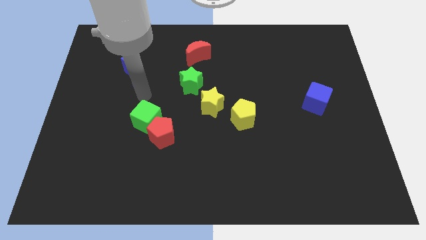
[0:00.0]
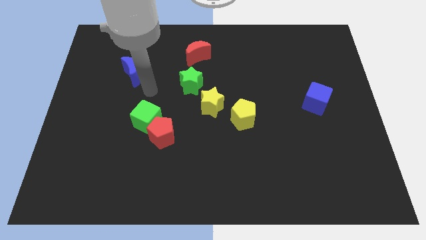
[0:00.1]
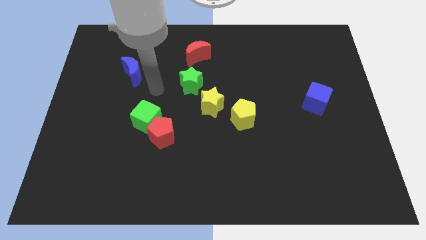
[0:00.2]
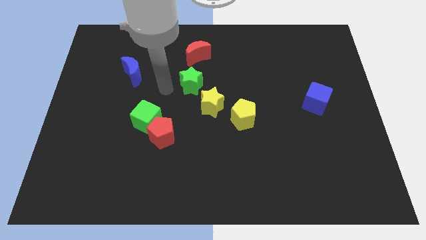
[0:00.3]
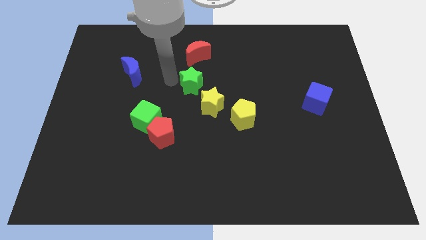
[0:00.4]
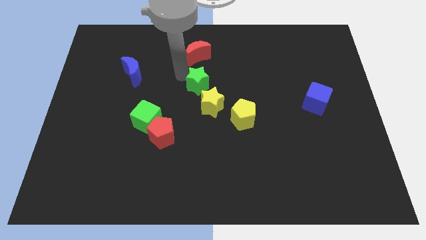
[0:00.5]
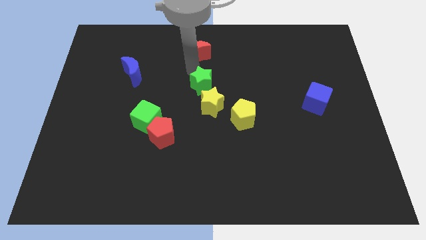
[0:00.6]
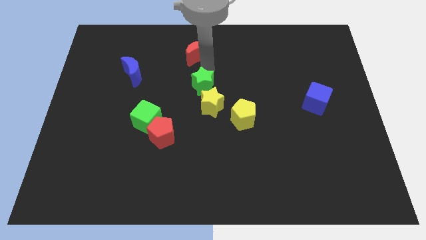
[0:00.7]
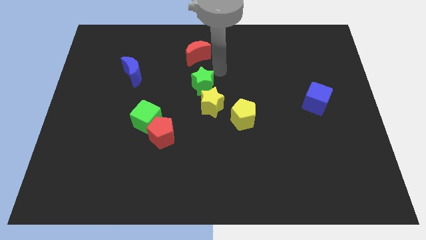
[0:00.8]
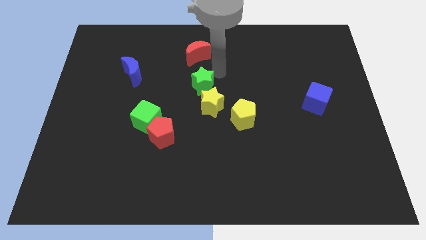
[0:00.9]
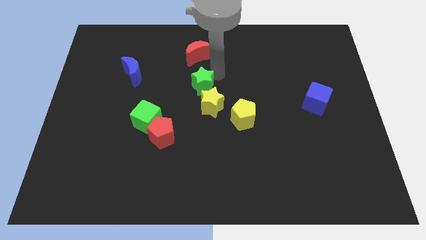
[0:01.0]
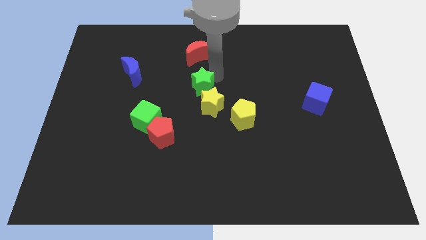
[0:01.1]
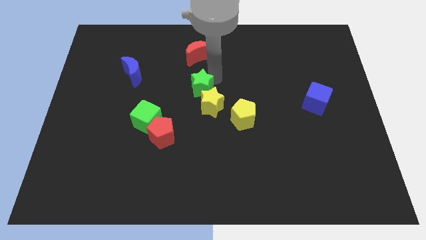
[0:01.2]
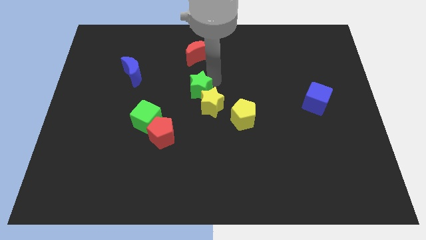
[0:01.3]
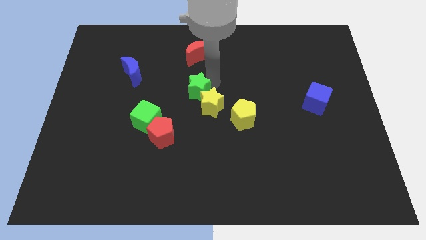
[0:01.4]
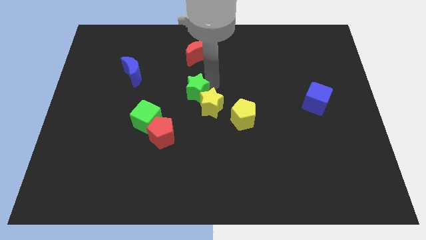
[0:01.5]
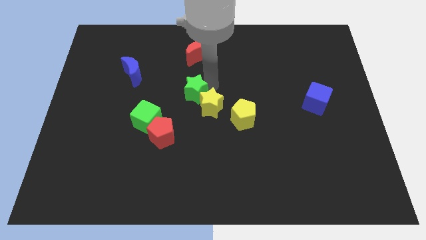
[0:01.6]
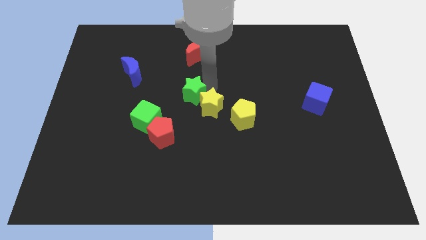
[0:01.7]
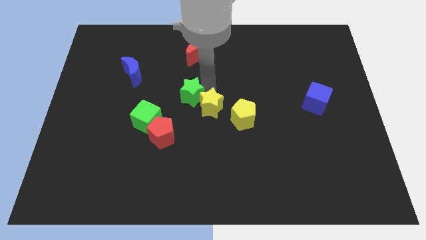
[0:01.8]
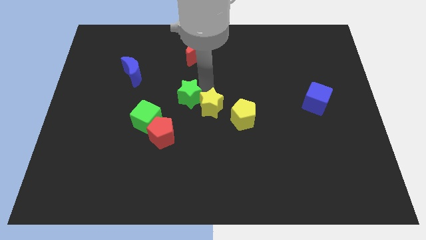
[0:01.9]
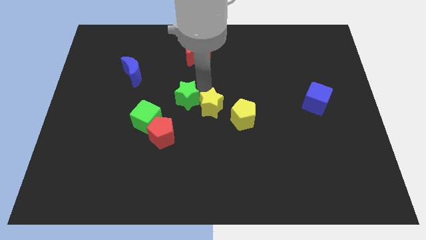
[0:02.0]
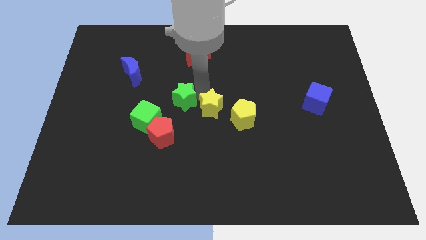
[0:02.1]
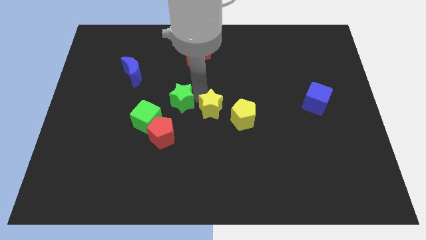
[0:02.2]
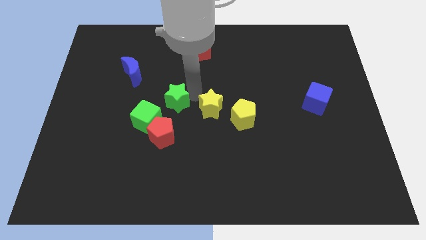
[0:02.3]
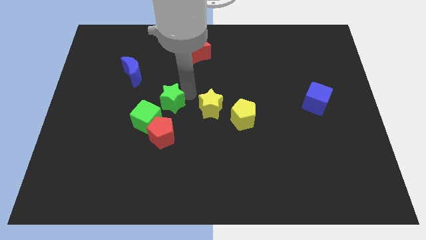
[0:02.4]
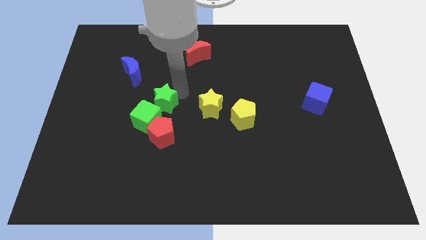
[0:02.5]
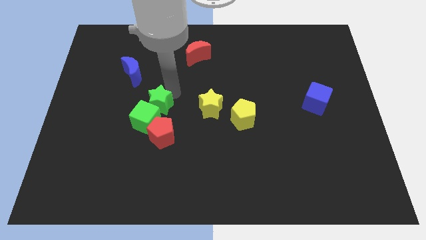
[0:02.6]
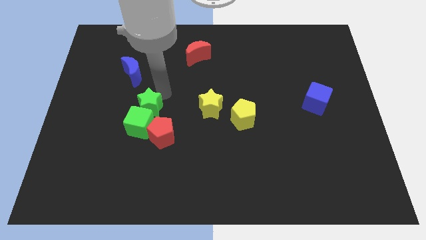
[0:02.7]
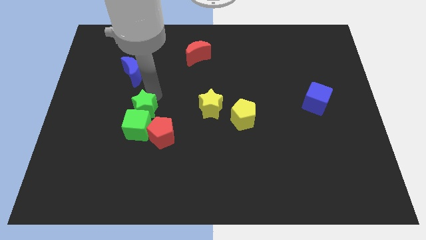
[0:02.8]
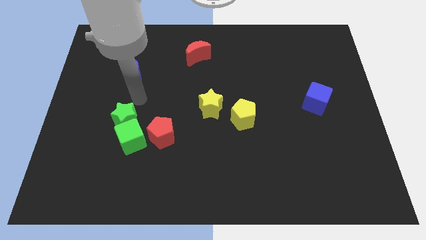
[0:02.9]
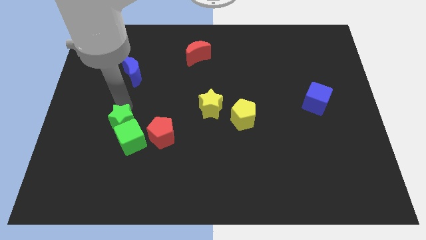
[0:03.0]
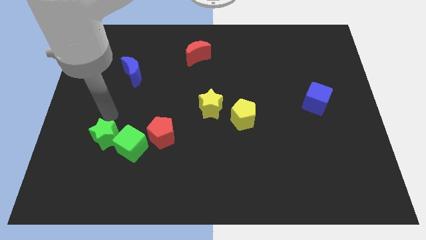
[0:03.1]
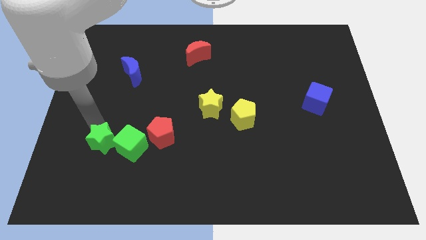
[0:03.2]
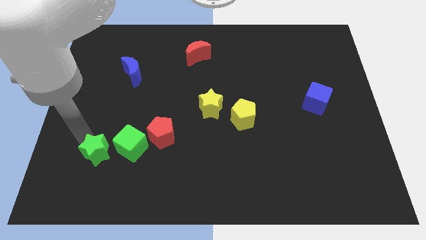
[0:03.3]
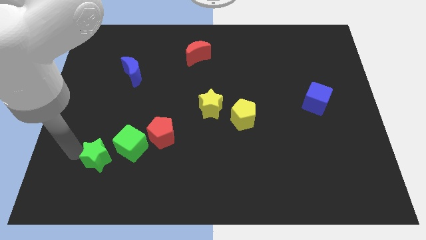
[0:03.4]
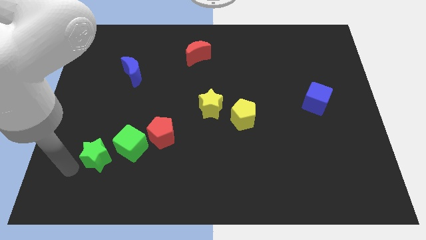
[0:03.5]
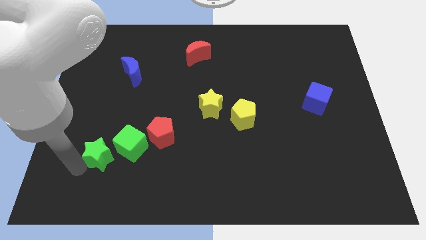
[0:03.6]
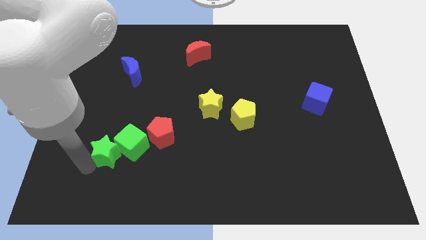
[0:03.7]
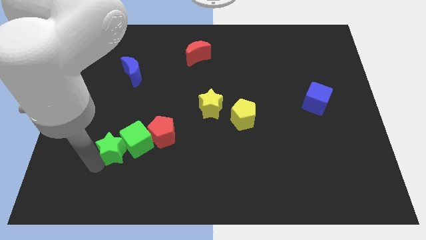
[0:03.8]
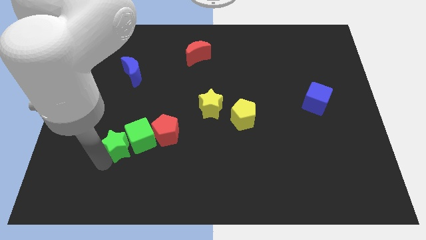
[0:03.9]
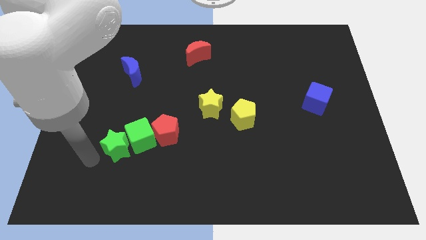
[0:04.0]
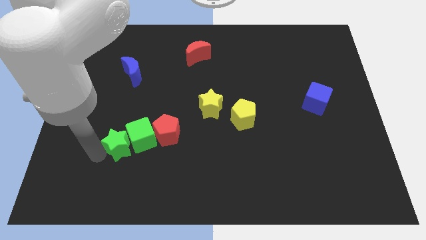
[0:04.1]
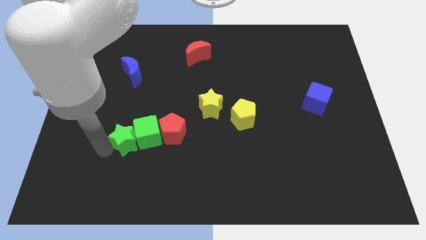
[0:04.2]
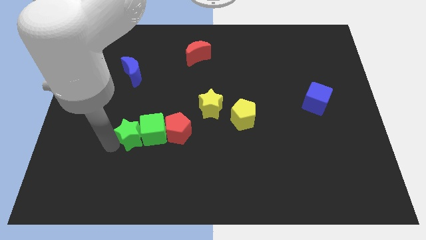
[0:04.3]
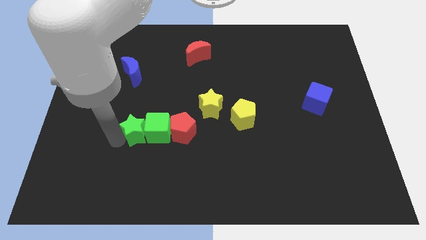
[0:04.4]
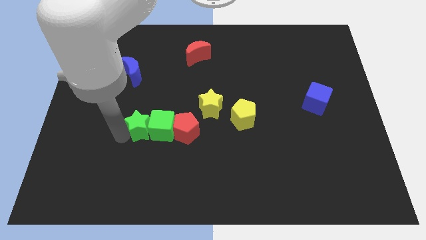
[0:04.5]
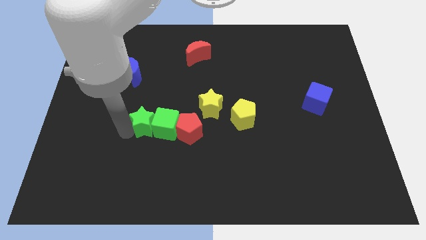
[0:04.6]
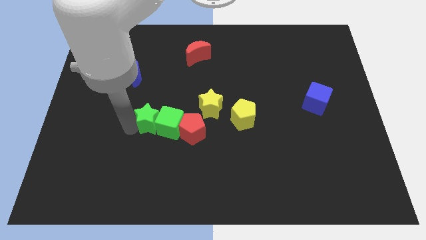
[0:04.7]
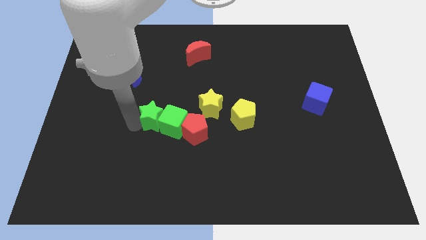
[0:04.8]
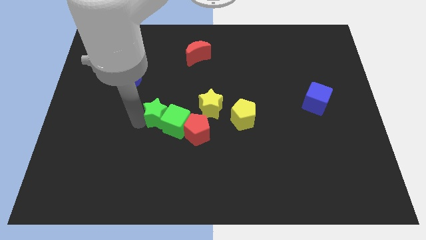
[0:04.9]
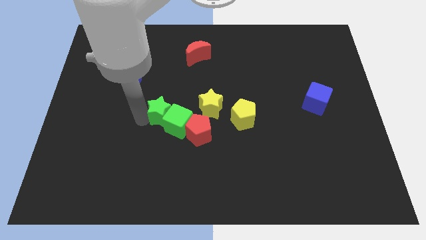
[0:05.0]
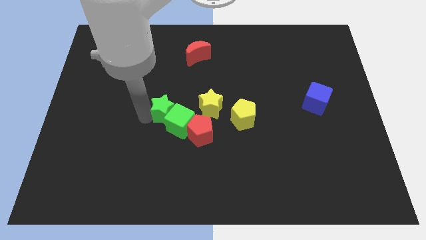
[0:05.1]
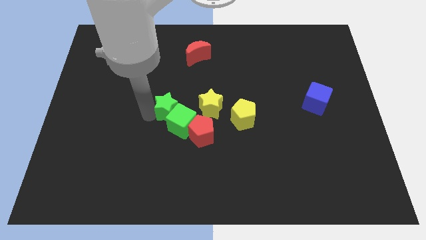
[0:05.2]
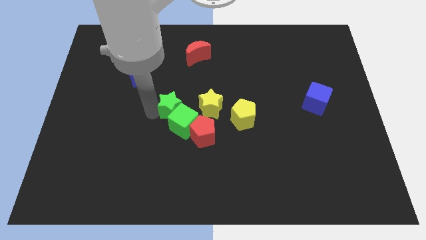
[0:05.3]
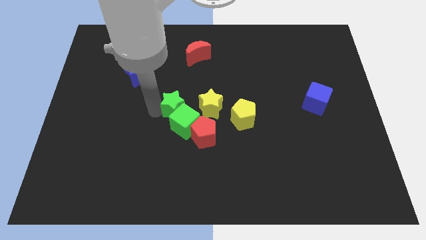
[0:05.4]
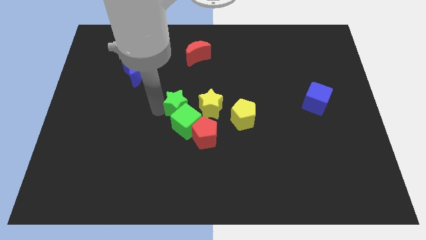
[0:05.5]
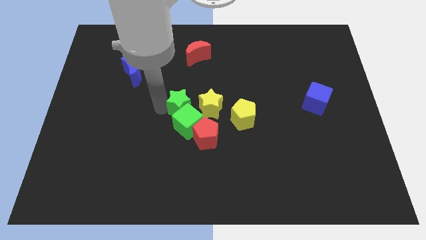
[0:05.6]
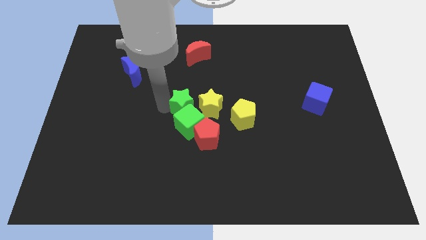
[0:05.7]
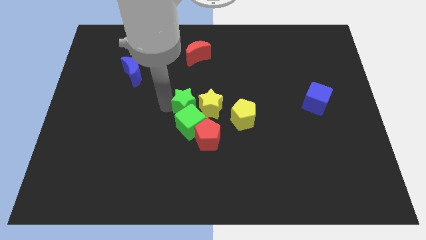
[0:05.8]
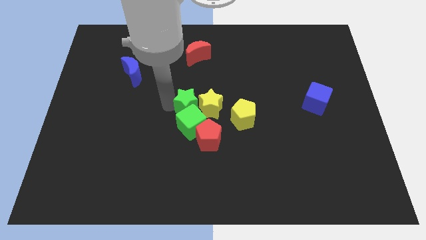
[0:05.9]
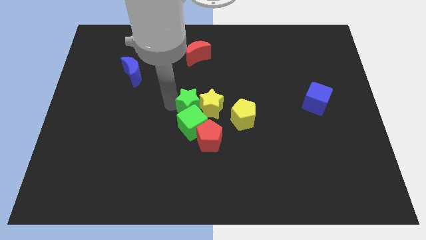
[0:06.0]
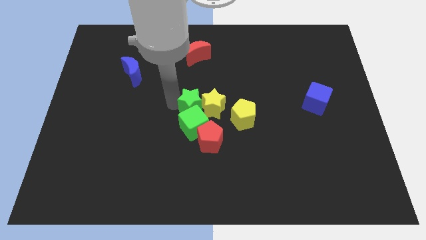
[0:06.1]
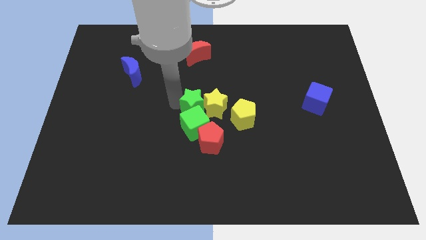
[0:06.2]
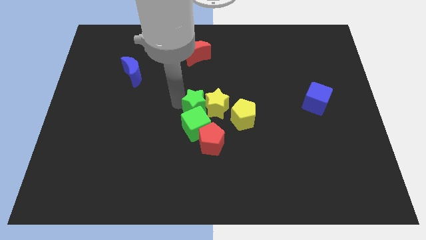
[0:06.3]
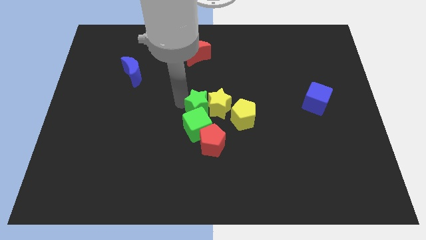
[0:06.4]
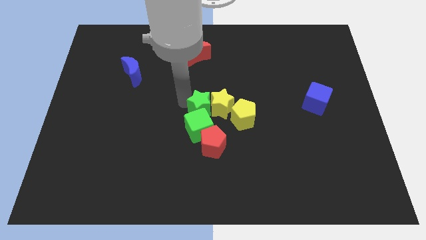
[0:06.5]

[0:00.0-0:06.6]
move the green star a bit downwards and to the right diagonally

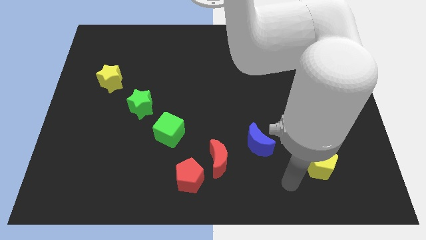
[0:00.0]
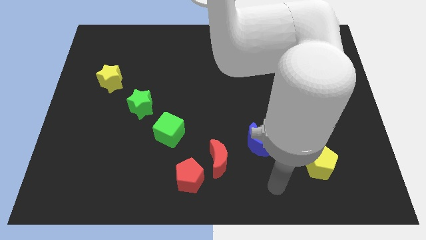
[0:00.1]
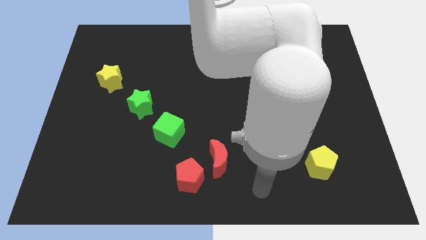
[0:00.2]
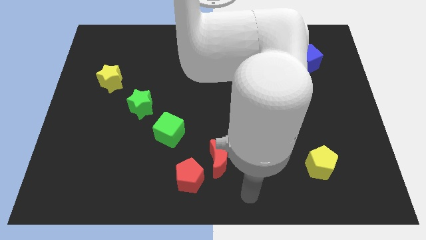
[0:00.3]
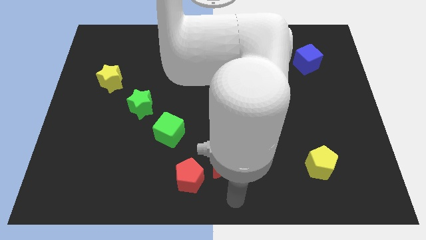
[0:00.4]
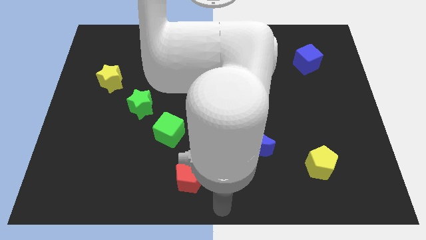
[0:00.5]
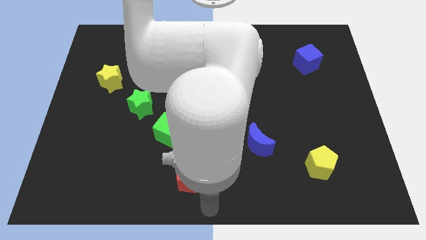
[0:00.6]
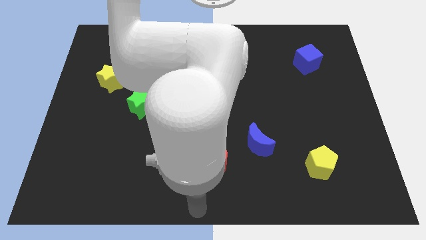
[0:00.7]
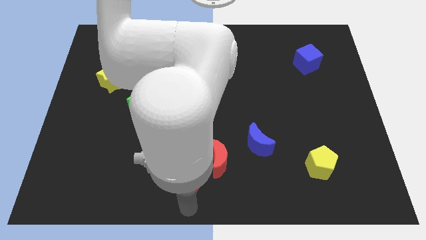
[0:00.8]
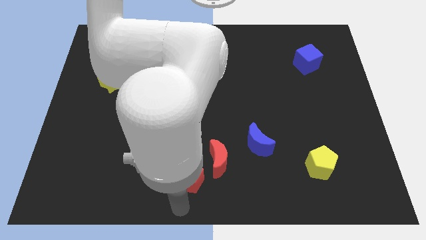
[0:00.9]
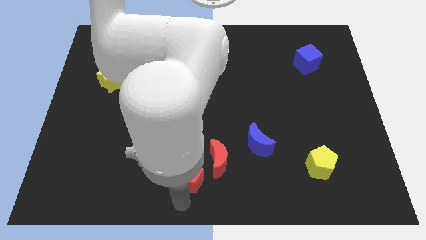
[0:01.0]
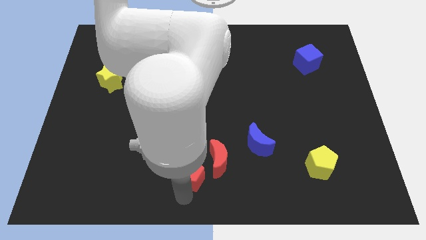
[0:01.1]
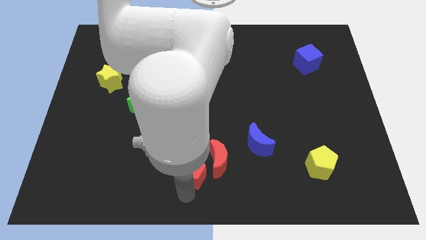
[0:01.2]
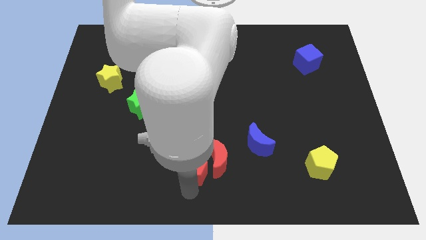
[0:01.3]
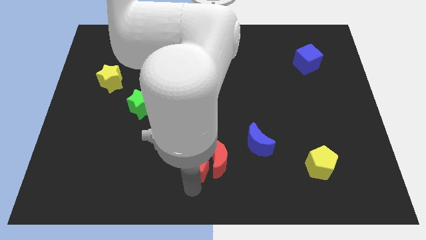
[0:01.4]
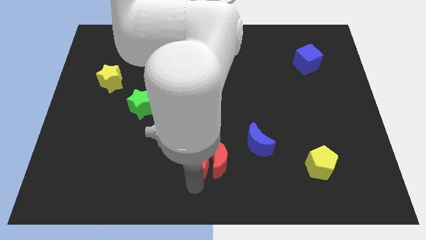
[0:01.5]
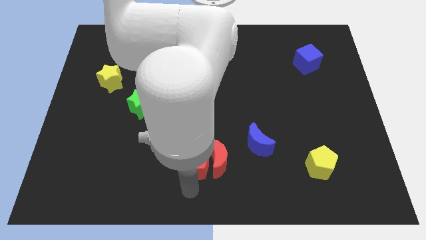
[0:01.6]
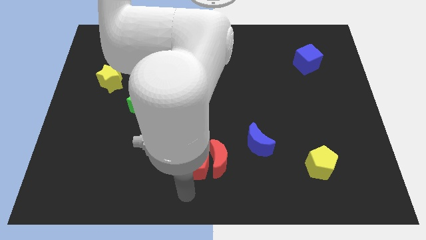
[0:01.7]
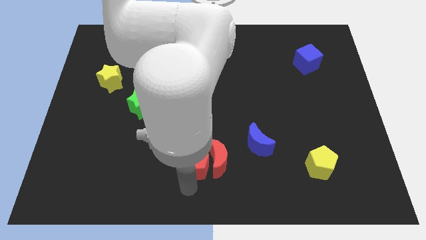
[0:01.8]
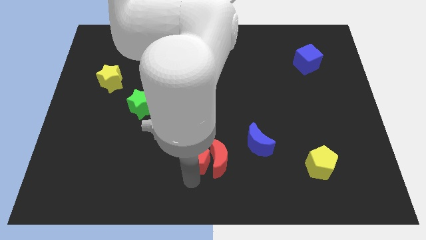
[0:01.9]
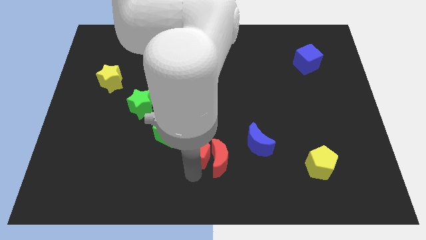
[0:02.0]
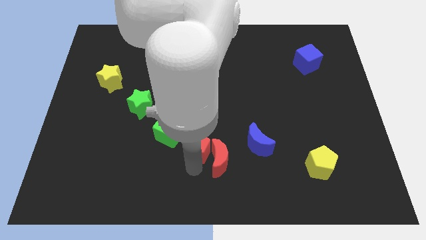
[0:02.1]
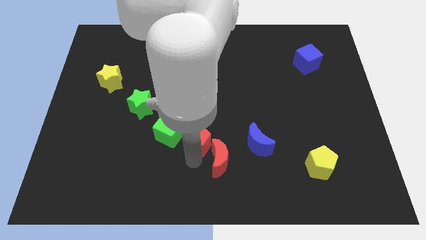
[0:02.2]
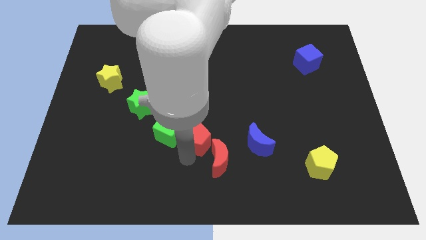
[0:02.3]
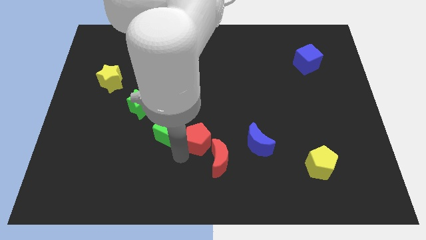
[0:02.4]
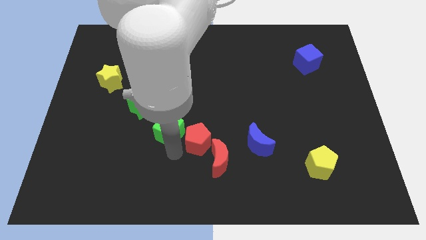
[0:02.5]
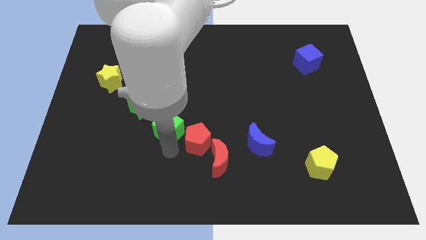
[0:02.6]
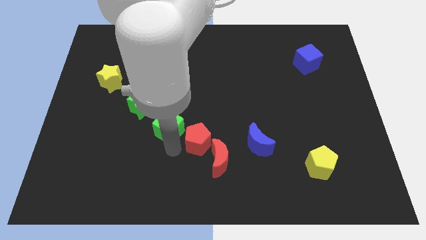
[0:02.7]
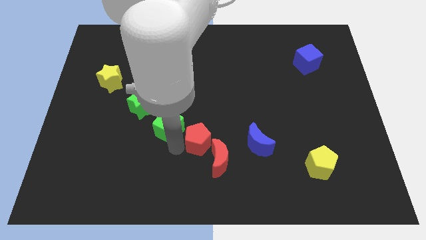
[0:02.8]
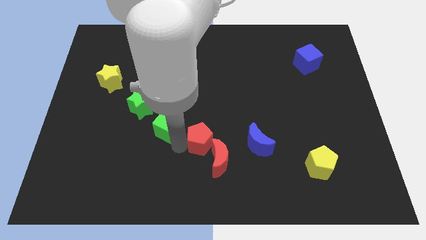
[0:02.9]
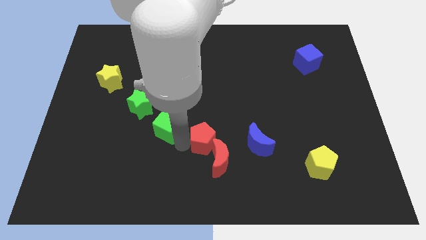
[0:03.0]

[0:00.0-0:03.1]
slightly push the red pentagon diagonally upwards and to the right
